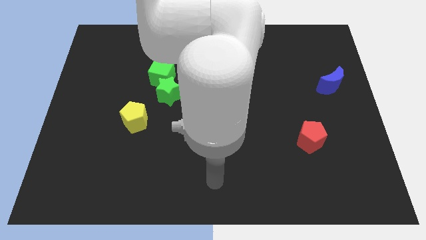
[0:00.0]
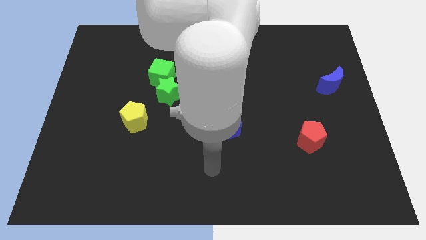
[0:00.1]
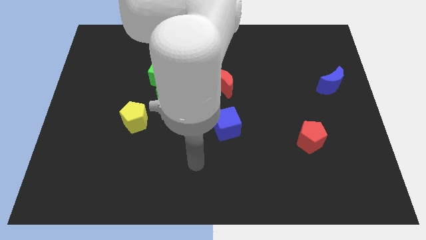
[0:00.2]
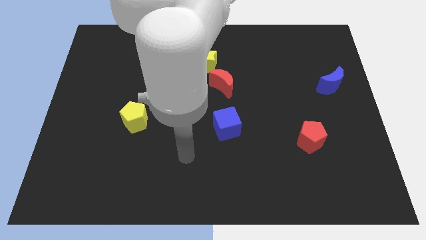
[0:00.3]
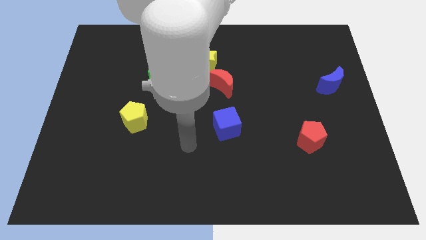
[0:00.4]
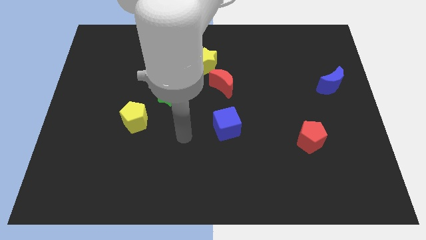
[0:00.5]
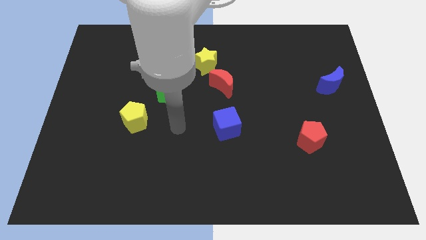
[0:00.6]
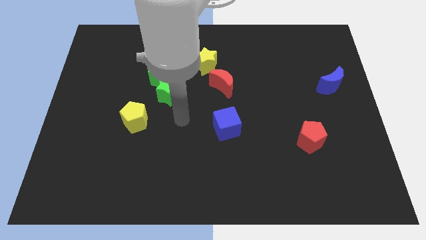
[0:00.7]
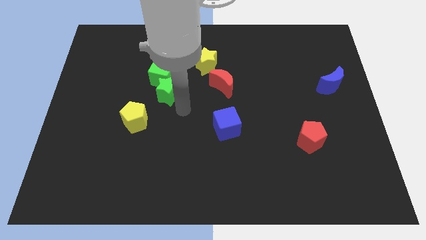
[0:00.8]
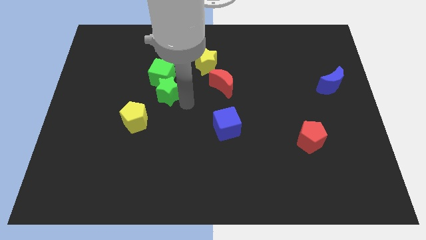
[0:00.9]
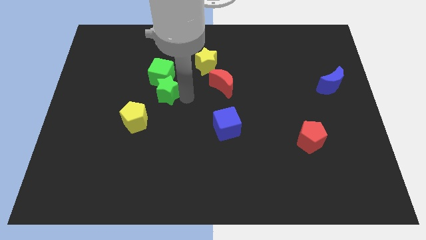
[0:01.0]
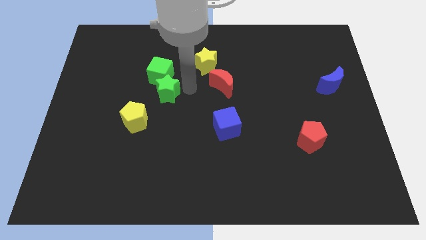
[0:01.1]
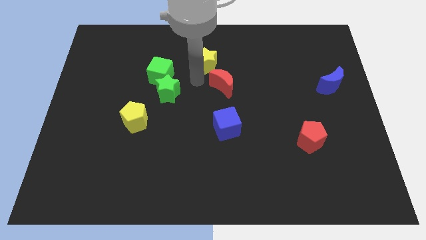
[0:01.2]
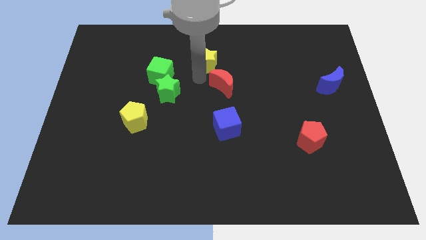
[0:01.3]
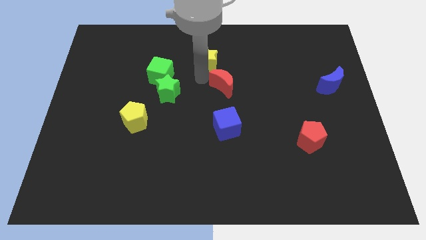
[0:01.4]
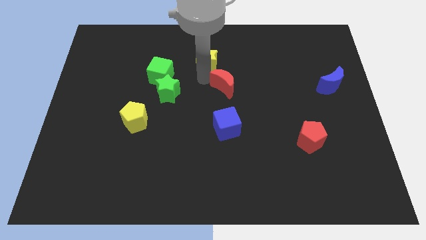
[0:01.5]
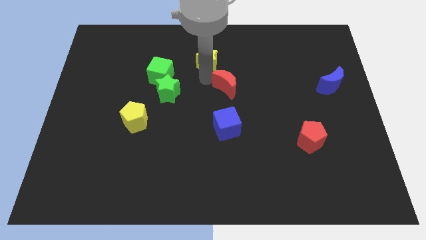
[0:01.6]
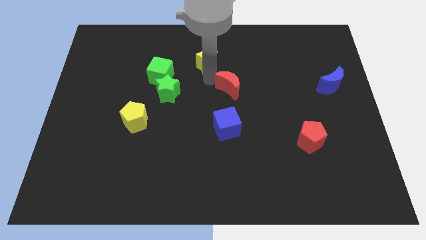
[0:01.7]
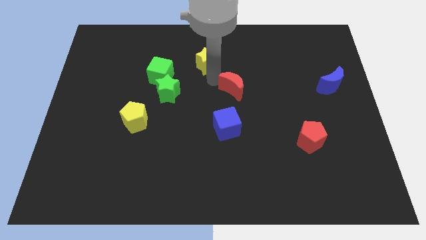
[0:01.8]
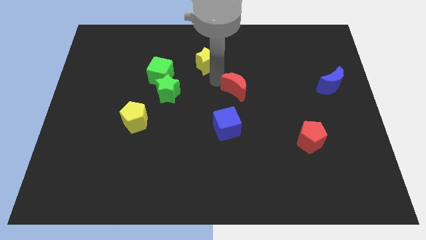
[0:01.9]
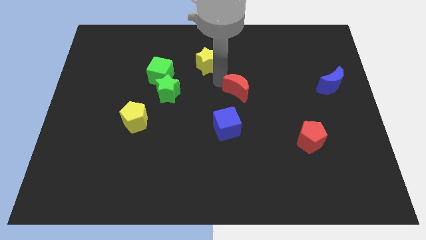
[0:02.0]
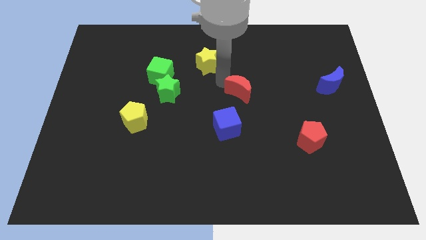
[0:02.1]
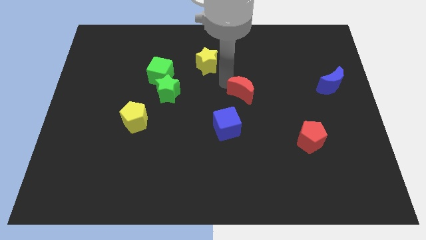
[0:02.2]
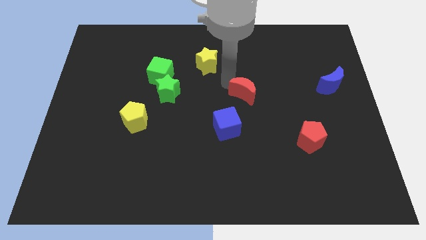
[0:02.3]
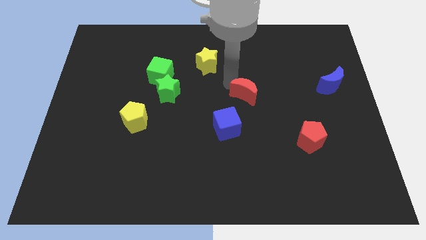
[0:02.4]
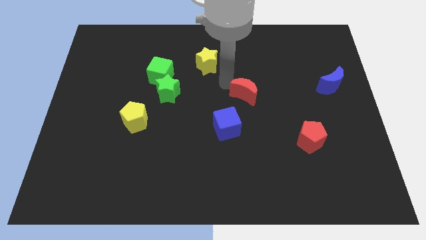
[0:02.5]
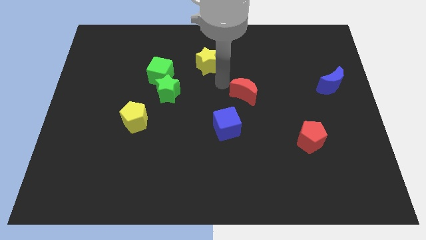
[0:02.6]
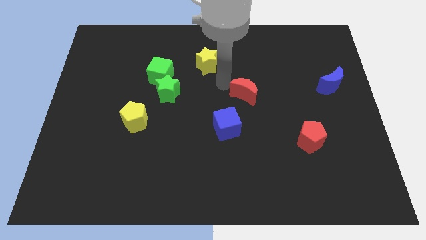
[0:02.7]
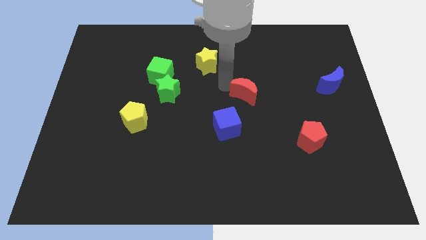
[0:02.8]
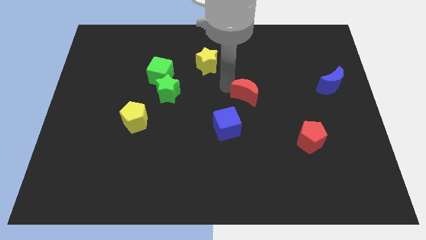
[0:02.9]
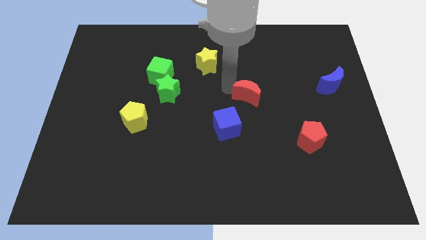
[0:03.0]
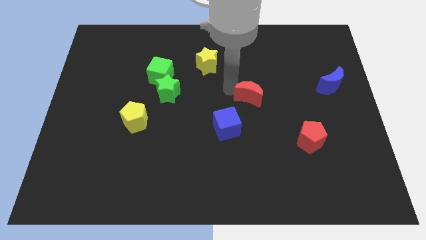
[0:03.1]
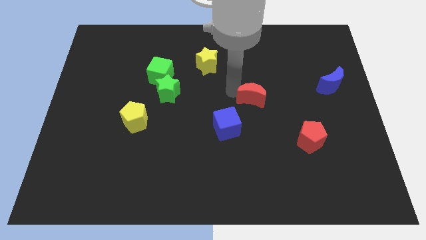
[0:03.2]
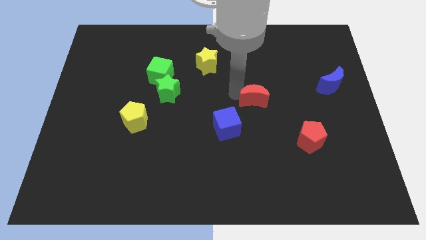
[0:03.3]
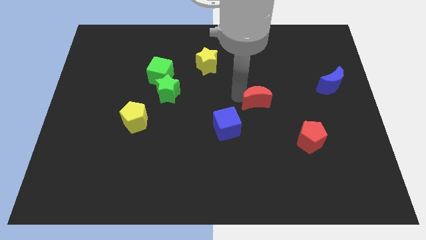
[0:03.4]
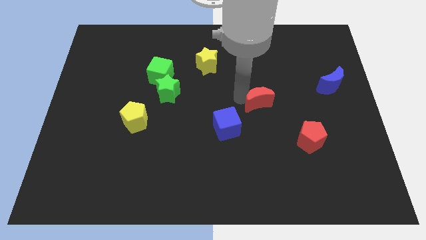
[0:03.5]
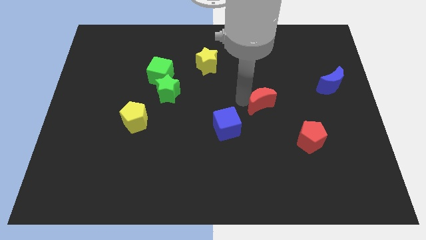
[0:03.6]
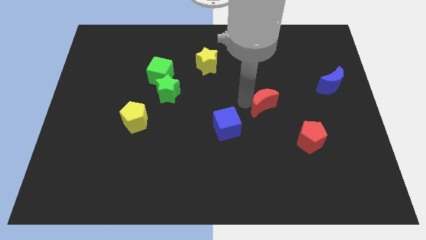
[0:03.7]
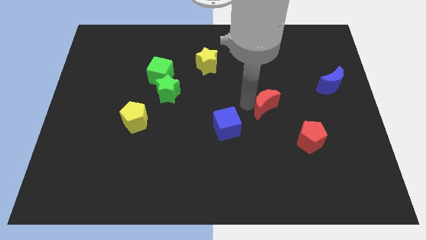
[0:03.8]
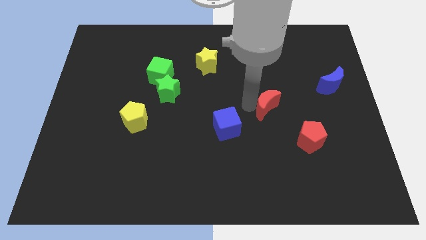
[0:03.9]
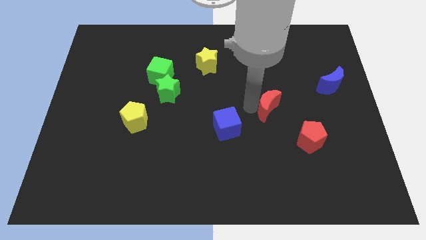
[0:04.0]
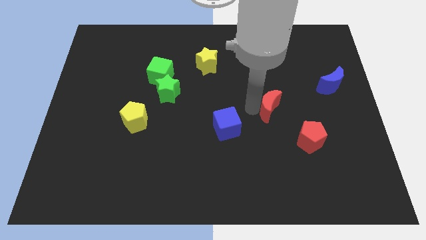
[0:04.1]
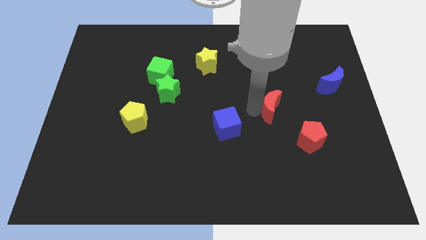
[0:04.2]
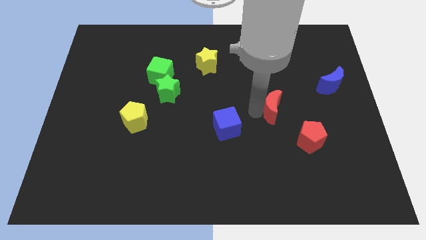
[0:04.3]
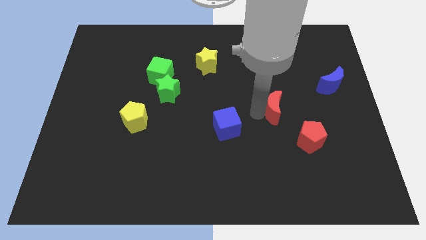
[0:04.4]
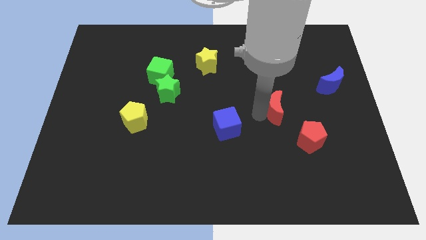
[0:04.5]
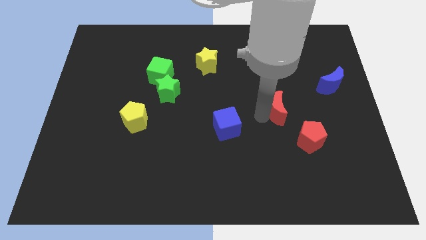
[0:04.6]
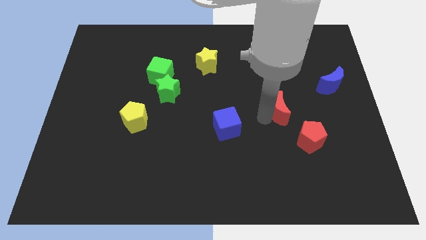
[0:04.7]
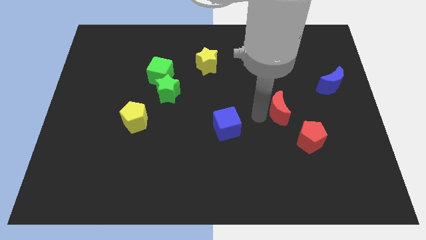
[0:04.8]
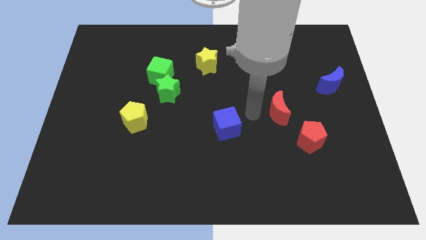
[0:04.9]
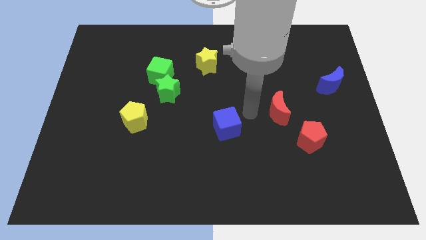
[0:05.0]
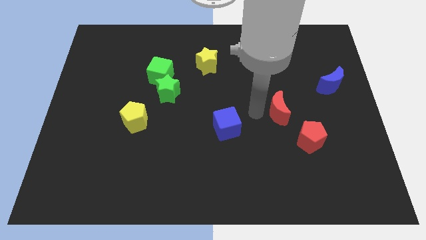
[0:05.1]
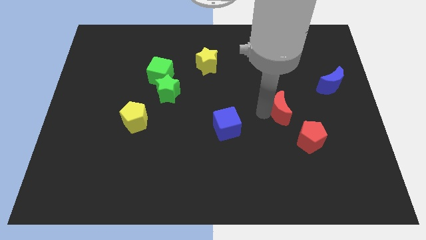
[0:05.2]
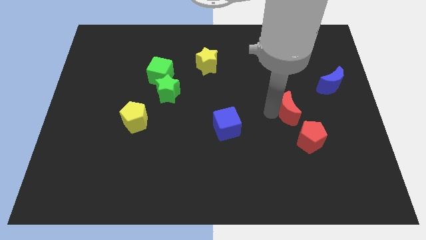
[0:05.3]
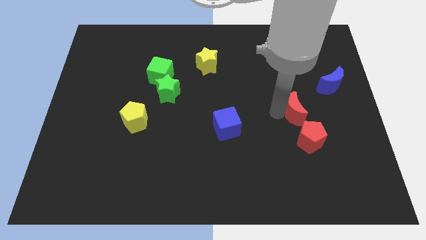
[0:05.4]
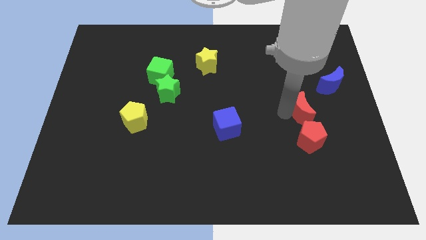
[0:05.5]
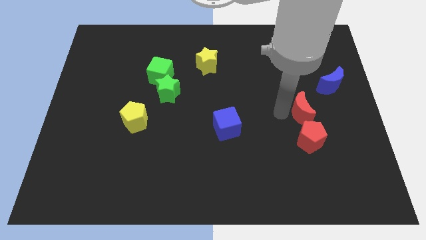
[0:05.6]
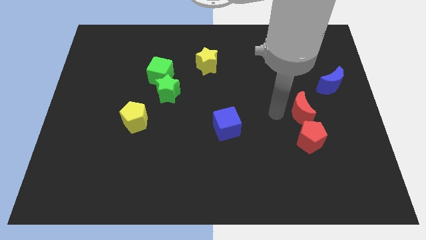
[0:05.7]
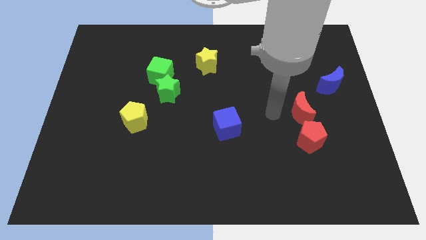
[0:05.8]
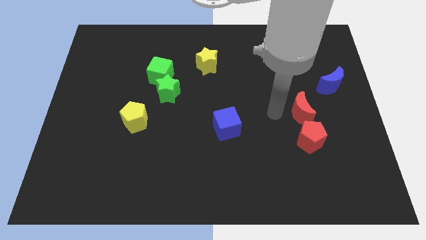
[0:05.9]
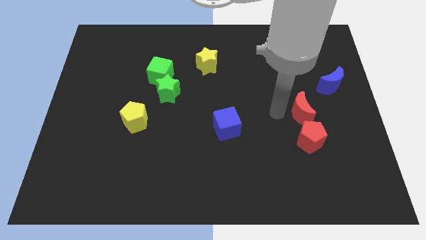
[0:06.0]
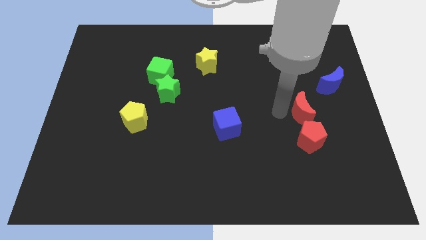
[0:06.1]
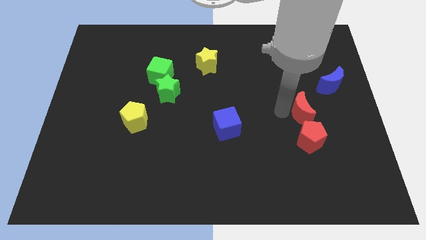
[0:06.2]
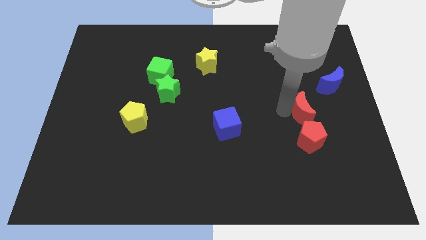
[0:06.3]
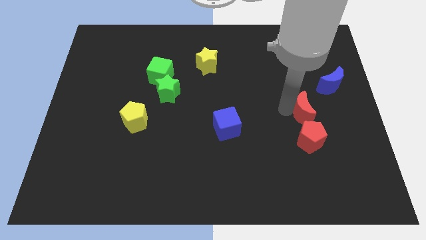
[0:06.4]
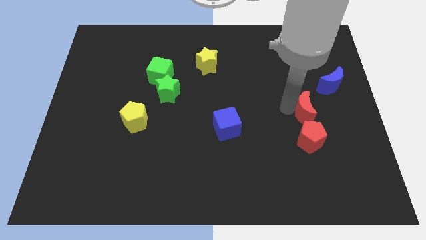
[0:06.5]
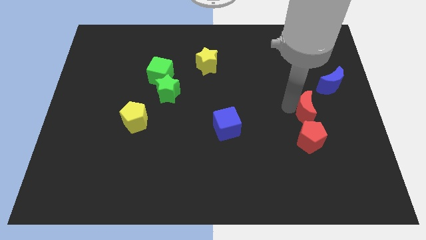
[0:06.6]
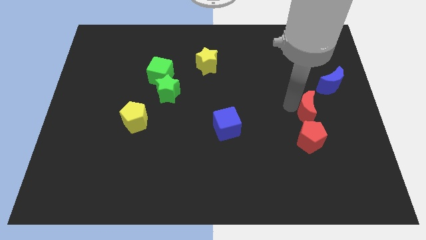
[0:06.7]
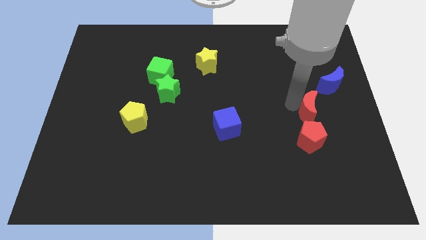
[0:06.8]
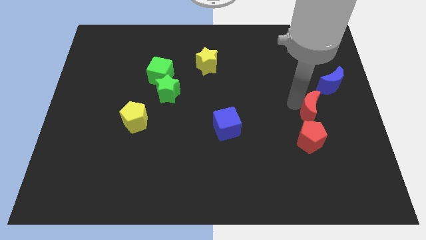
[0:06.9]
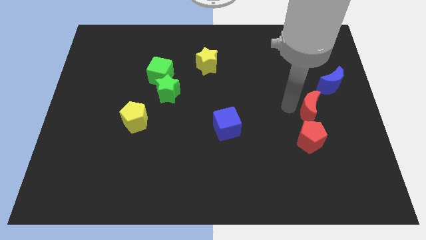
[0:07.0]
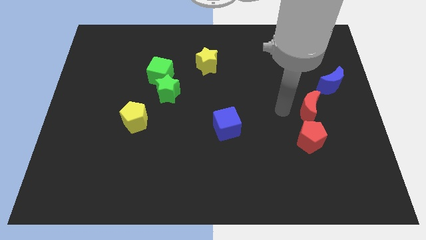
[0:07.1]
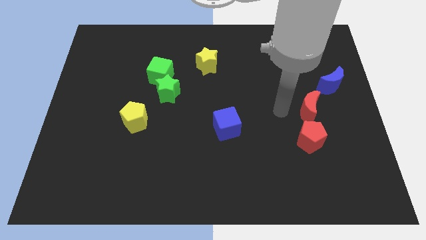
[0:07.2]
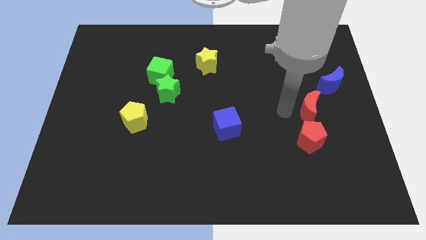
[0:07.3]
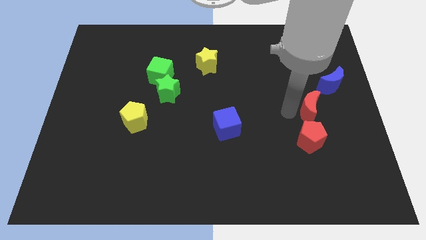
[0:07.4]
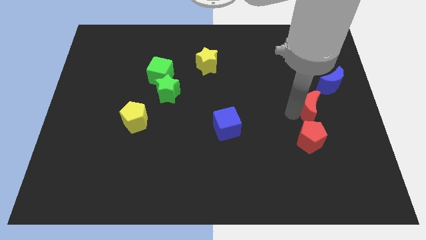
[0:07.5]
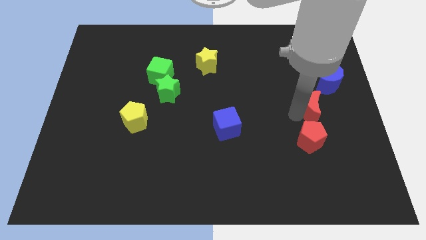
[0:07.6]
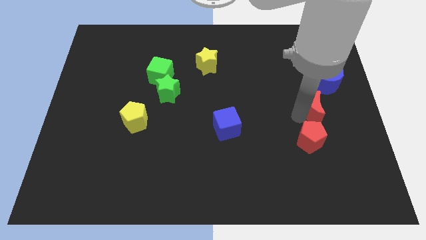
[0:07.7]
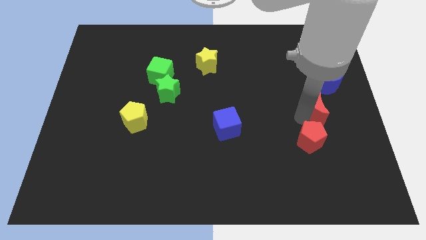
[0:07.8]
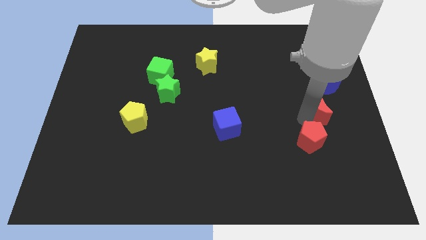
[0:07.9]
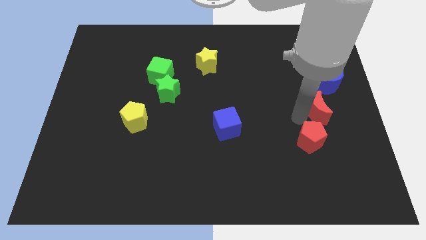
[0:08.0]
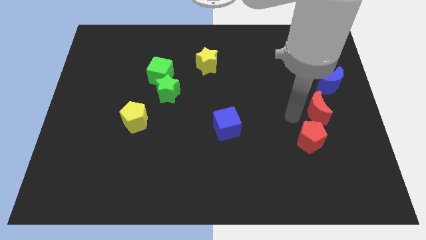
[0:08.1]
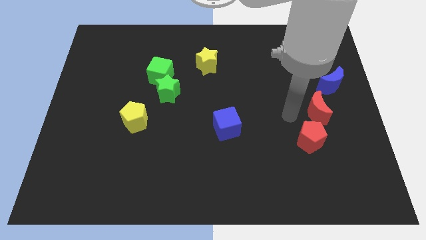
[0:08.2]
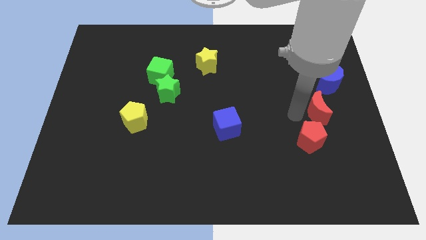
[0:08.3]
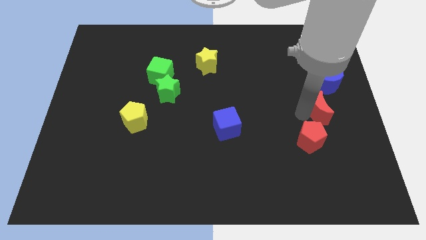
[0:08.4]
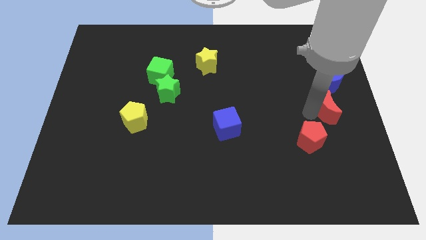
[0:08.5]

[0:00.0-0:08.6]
put the red moon to the center right
